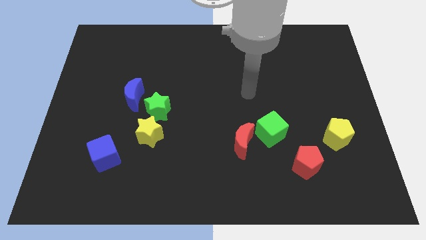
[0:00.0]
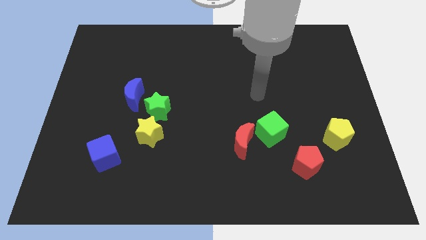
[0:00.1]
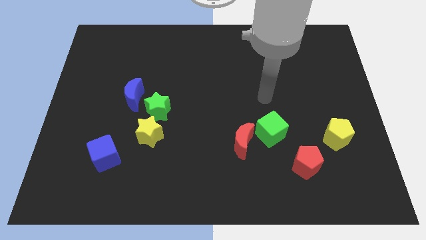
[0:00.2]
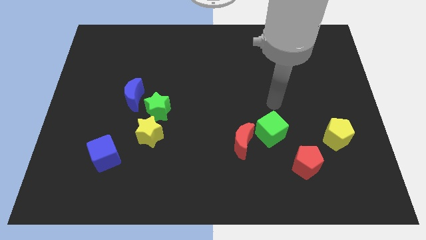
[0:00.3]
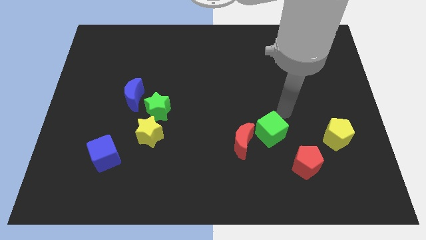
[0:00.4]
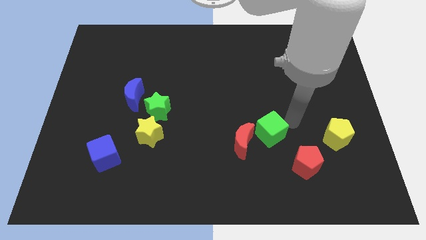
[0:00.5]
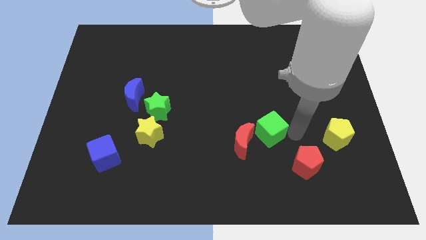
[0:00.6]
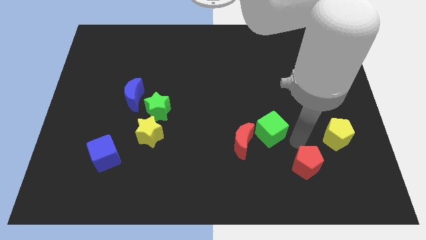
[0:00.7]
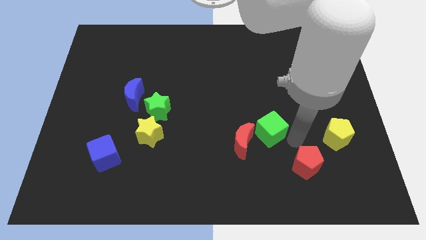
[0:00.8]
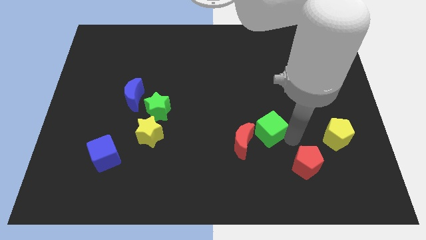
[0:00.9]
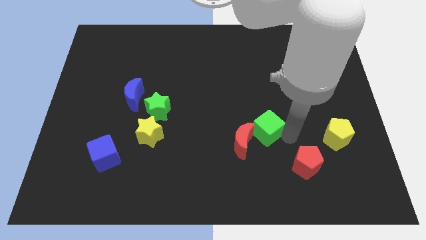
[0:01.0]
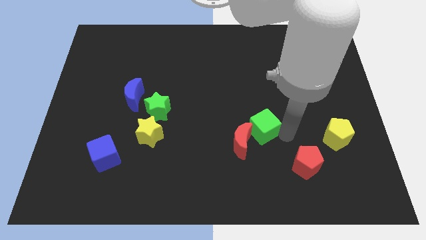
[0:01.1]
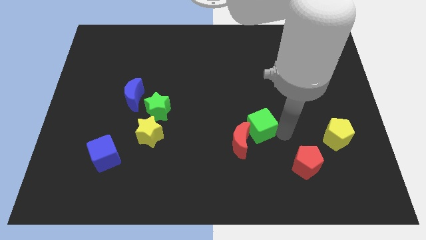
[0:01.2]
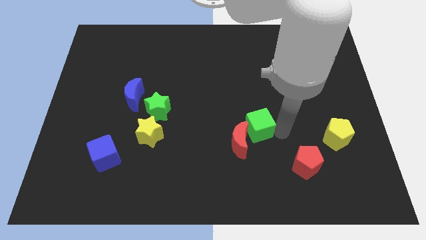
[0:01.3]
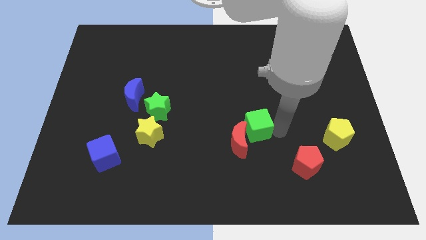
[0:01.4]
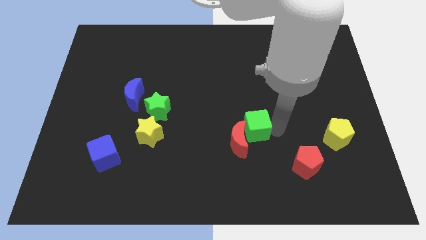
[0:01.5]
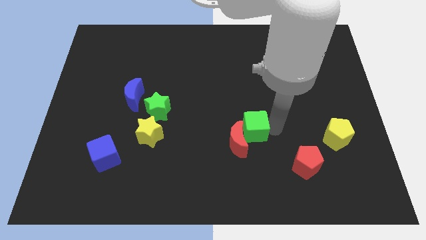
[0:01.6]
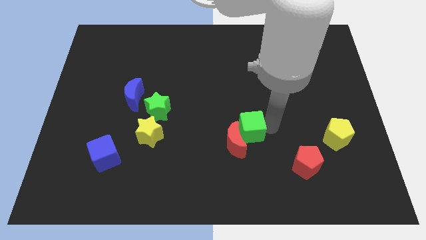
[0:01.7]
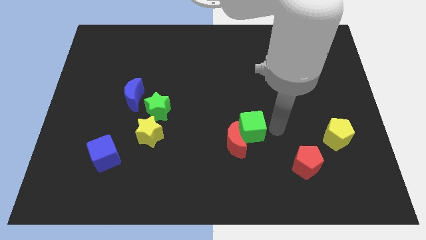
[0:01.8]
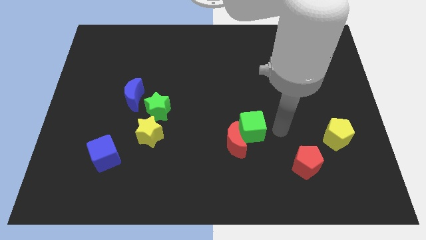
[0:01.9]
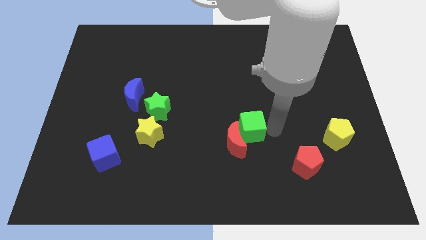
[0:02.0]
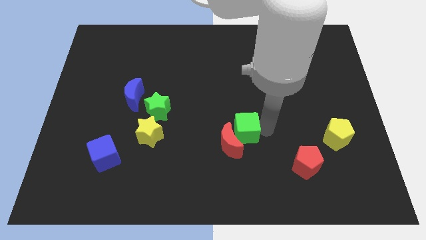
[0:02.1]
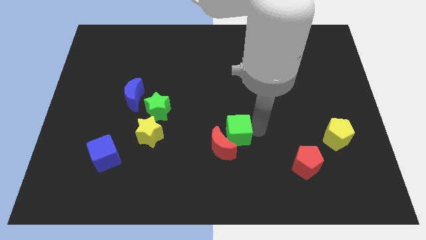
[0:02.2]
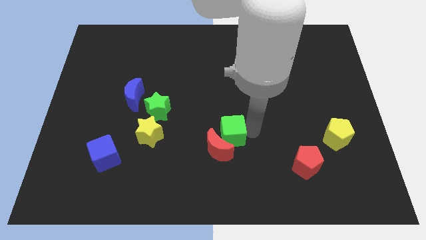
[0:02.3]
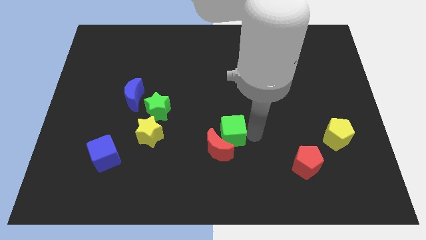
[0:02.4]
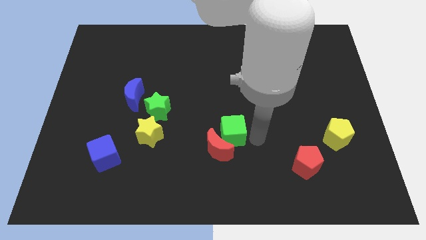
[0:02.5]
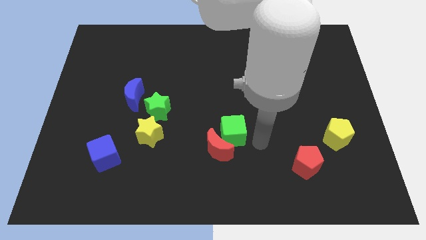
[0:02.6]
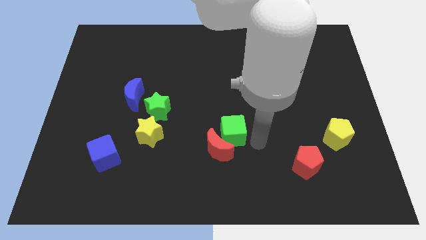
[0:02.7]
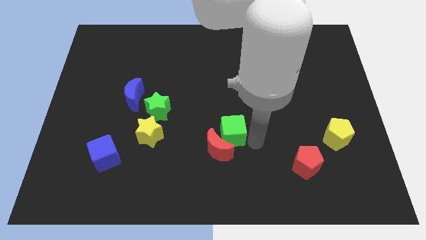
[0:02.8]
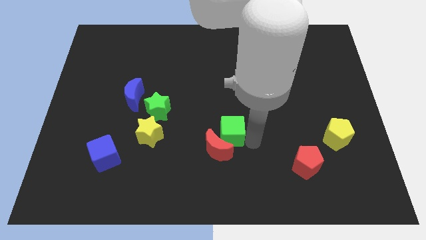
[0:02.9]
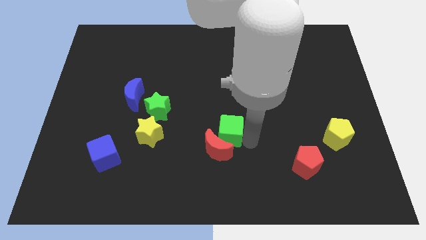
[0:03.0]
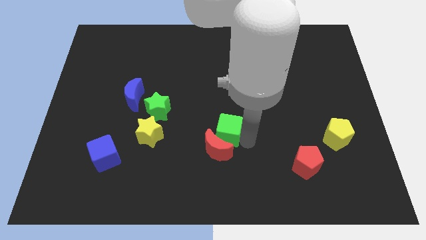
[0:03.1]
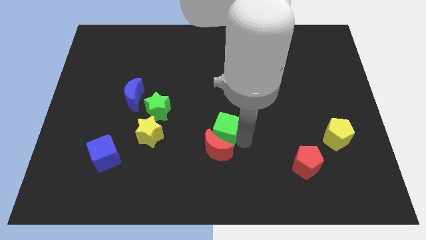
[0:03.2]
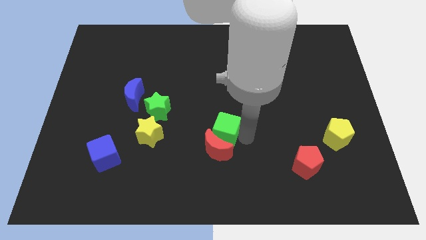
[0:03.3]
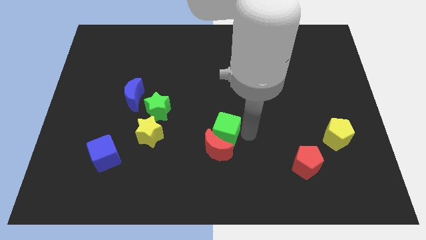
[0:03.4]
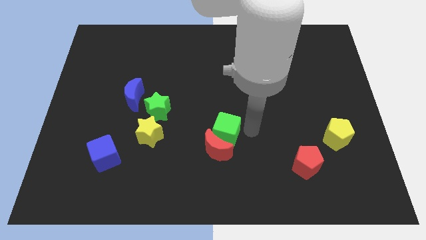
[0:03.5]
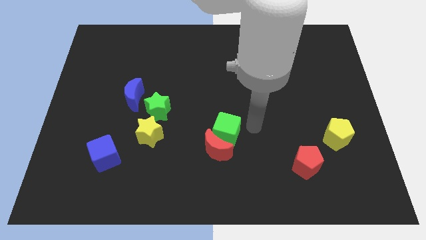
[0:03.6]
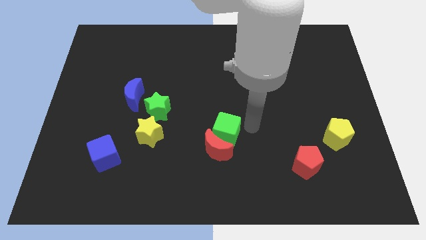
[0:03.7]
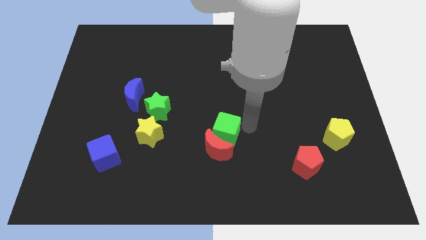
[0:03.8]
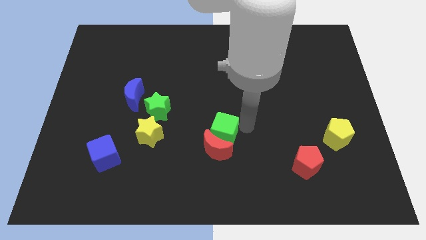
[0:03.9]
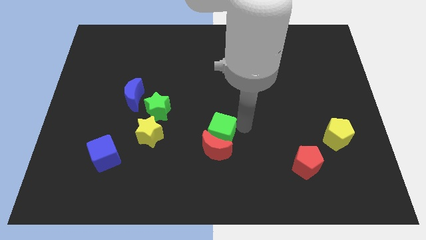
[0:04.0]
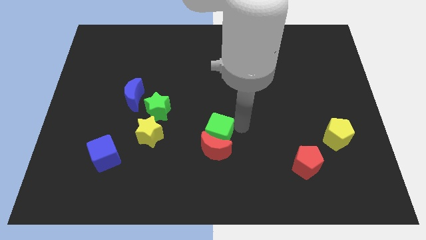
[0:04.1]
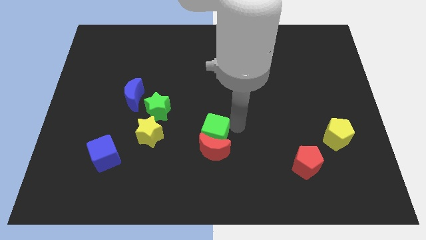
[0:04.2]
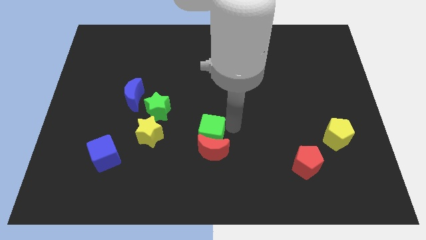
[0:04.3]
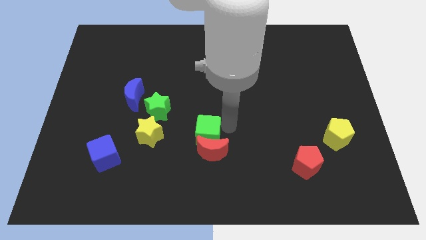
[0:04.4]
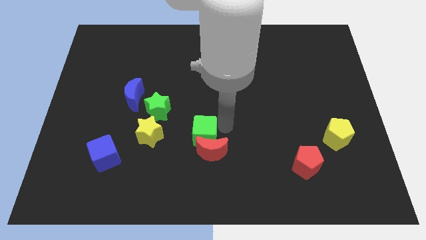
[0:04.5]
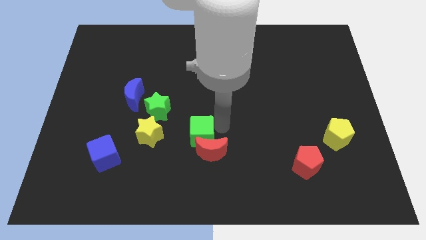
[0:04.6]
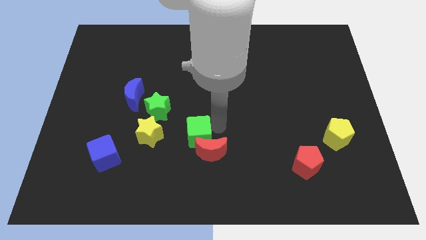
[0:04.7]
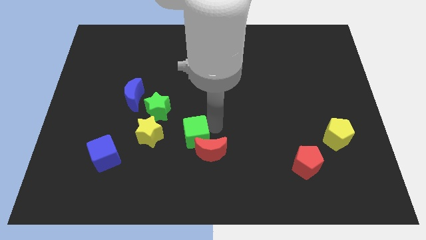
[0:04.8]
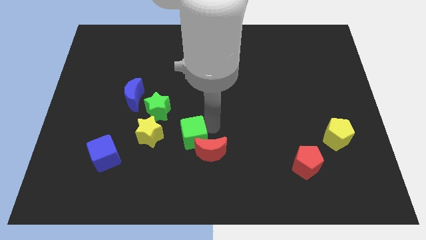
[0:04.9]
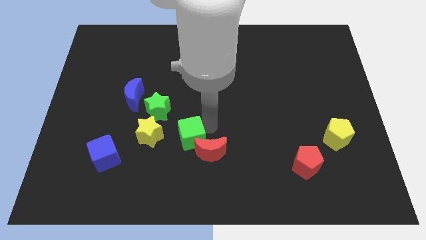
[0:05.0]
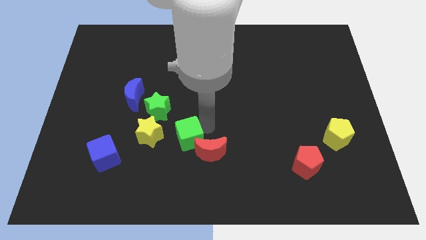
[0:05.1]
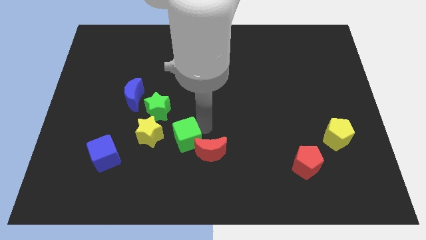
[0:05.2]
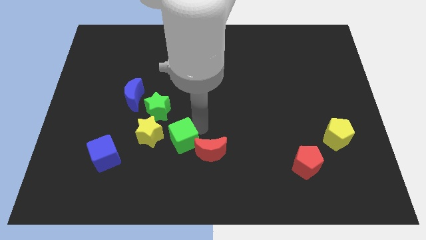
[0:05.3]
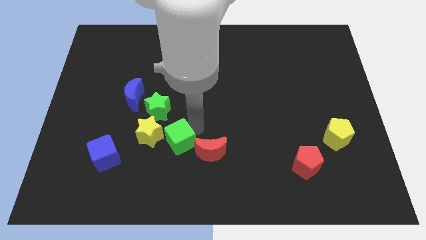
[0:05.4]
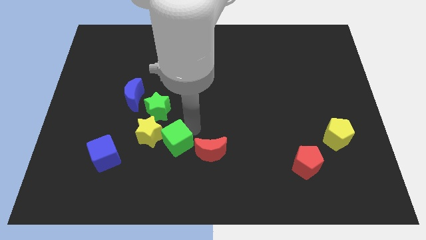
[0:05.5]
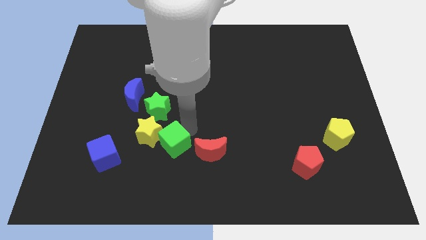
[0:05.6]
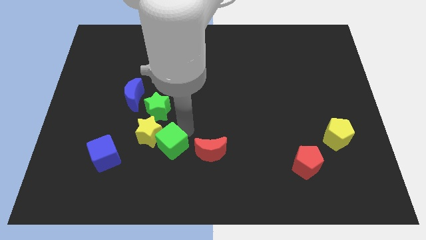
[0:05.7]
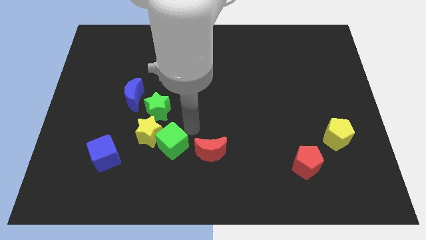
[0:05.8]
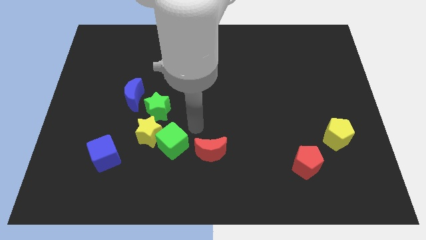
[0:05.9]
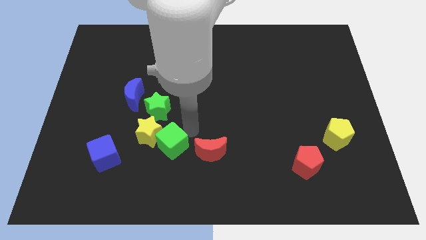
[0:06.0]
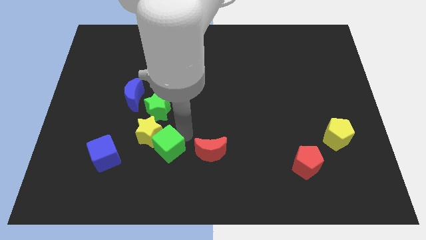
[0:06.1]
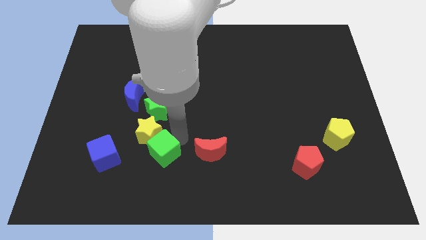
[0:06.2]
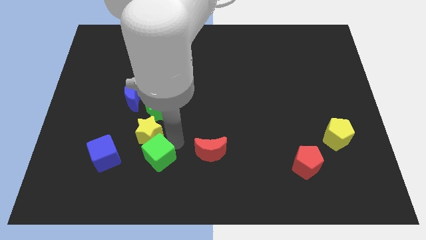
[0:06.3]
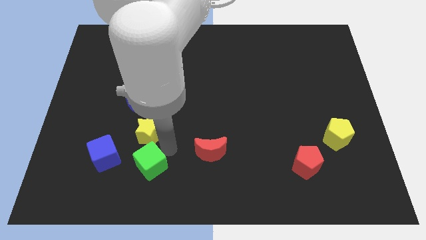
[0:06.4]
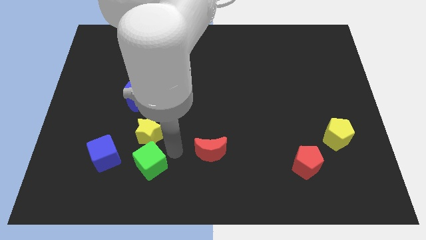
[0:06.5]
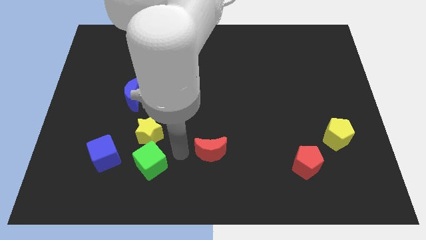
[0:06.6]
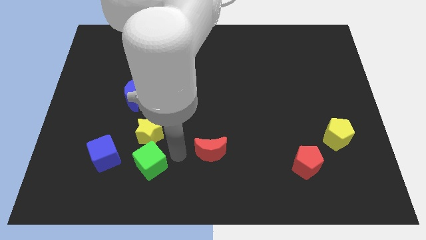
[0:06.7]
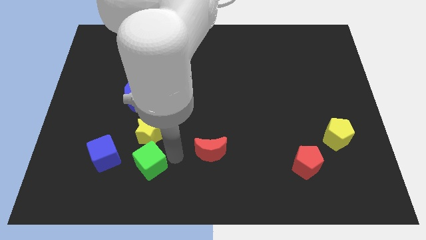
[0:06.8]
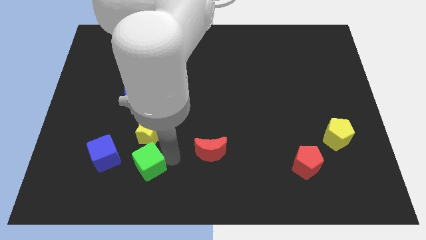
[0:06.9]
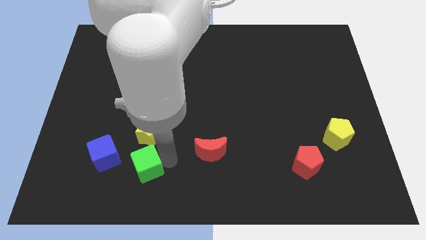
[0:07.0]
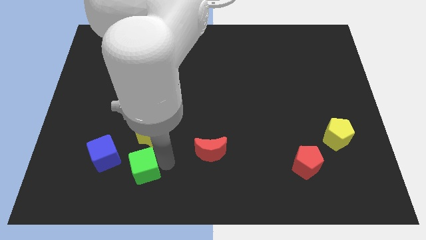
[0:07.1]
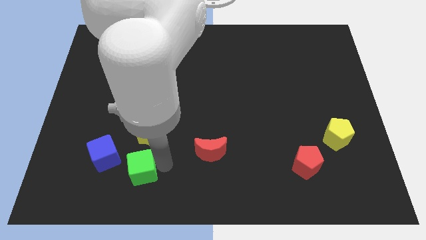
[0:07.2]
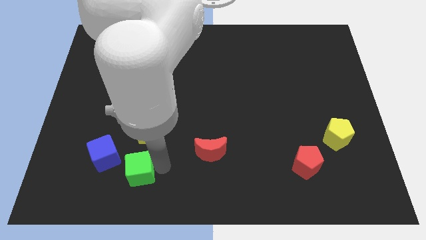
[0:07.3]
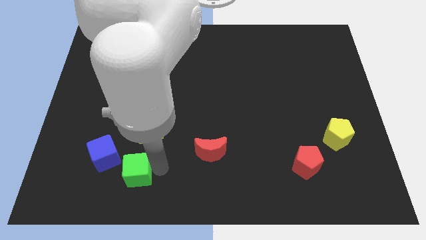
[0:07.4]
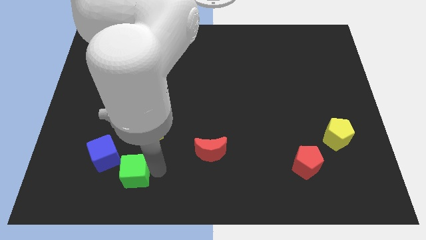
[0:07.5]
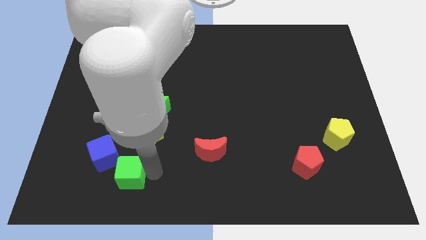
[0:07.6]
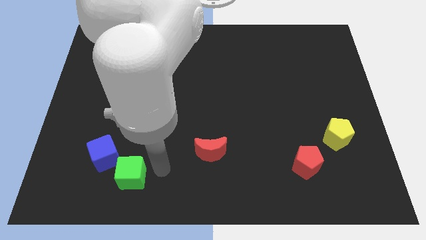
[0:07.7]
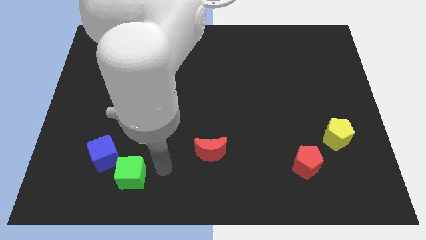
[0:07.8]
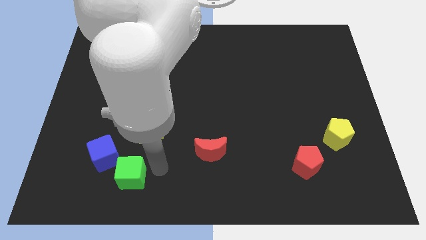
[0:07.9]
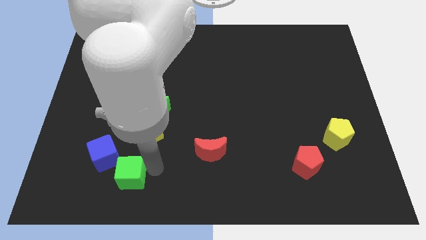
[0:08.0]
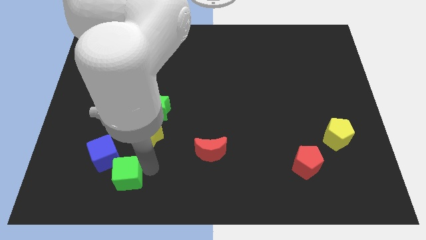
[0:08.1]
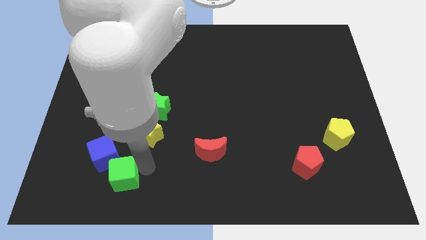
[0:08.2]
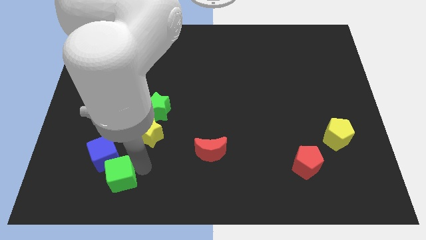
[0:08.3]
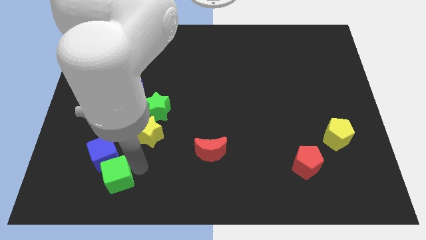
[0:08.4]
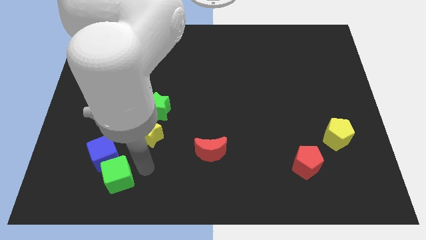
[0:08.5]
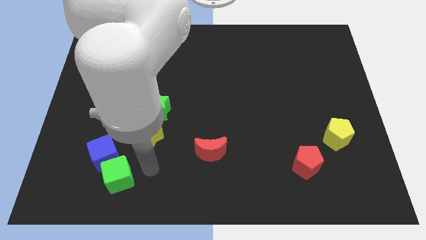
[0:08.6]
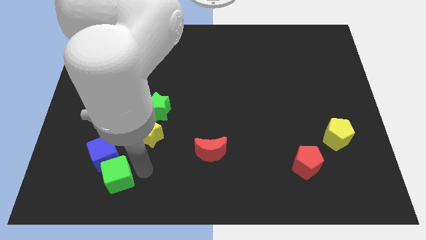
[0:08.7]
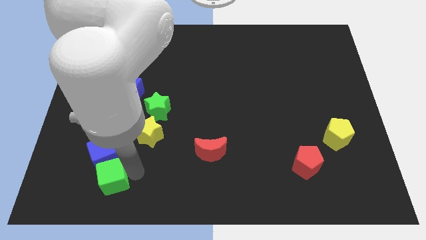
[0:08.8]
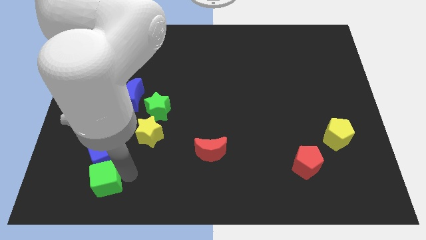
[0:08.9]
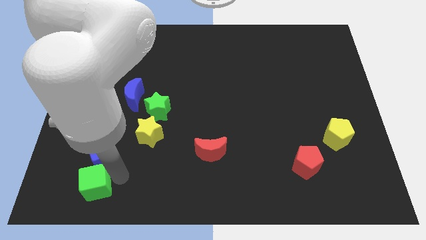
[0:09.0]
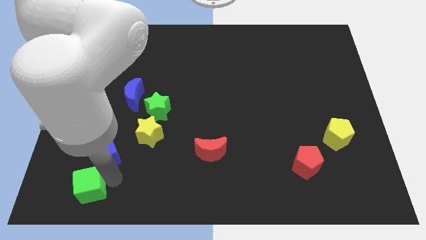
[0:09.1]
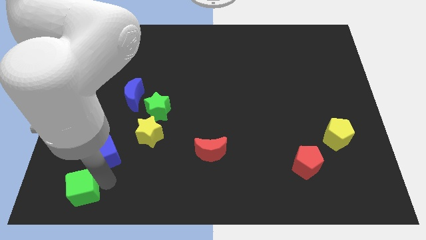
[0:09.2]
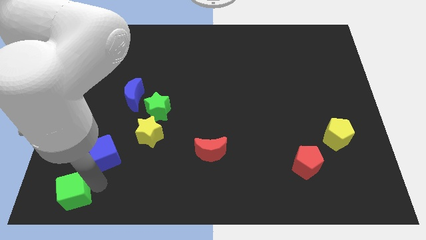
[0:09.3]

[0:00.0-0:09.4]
push the green cube to the bottom left of the board
